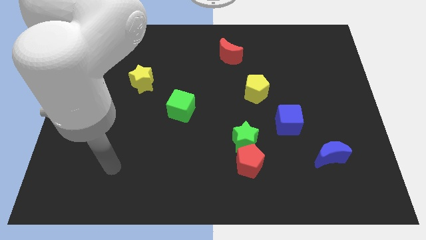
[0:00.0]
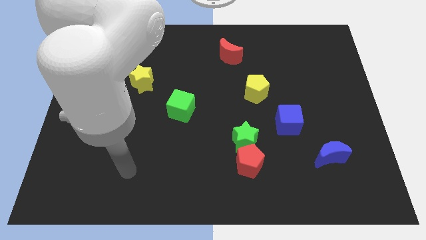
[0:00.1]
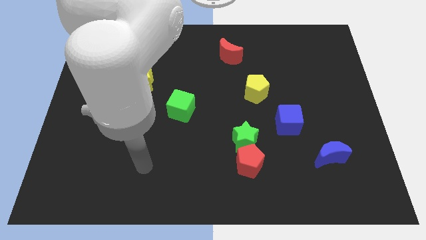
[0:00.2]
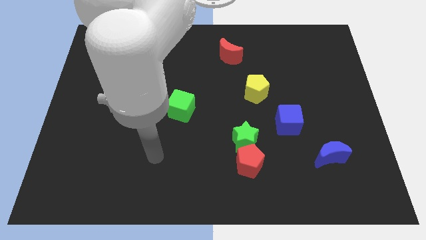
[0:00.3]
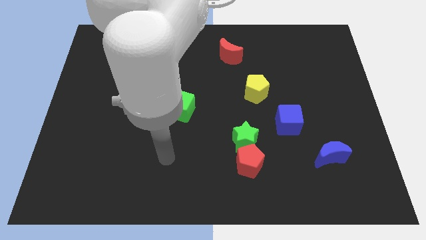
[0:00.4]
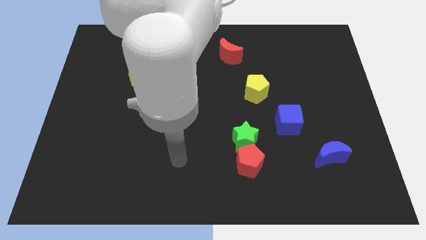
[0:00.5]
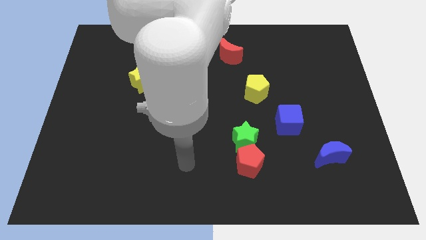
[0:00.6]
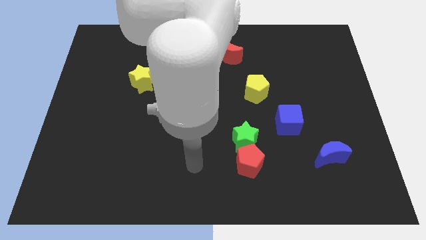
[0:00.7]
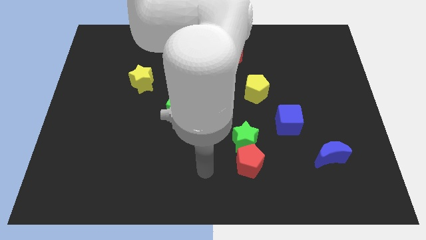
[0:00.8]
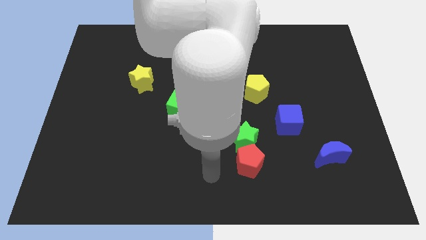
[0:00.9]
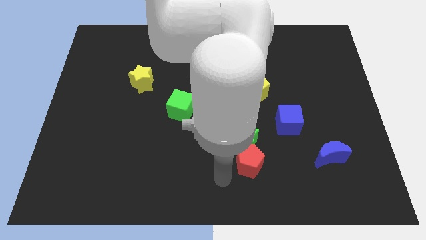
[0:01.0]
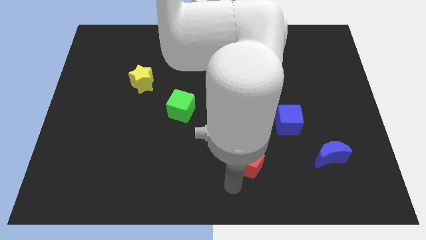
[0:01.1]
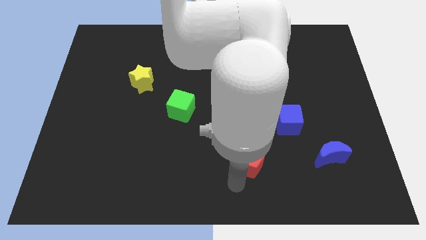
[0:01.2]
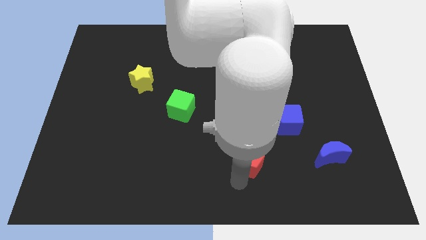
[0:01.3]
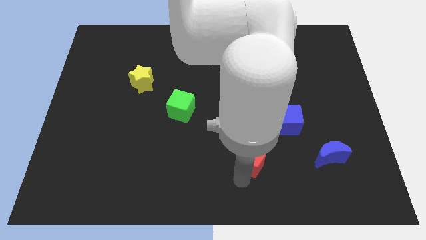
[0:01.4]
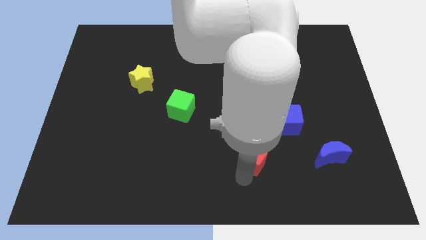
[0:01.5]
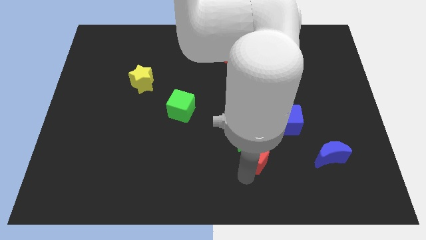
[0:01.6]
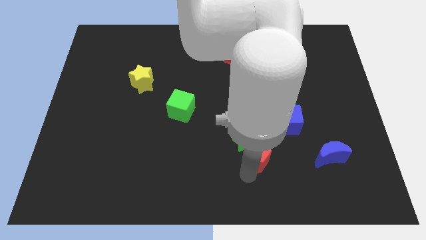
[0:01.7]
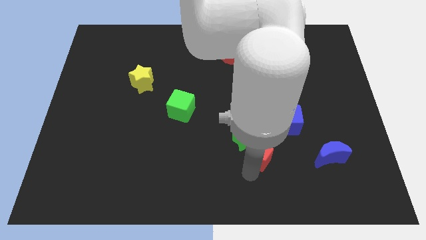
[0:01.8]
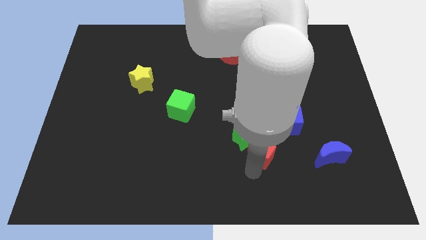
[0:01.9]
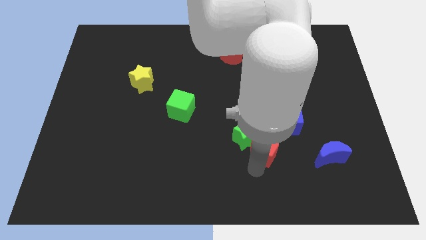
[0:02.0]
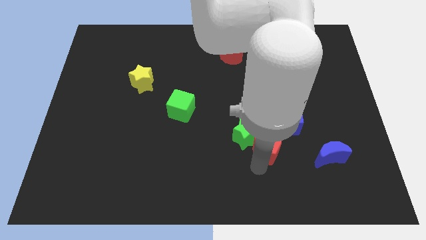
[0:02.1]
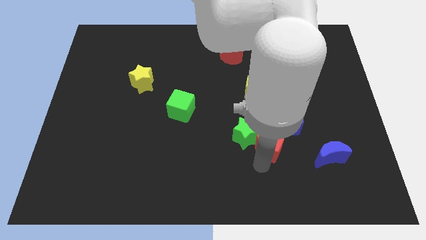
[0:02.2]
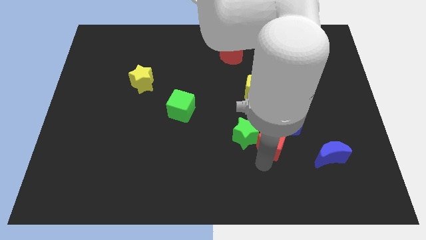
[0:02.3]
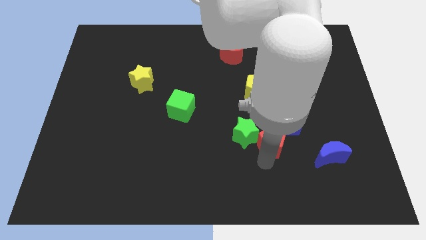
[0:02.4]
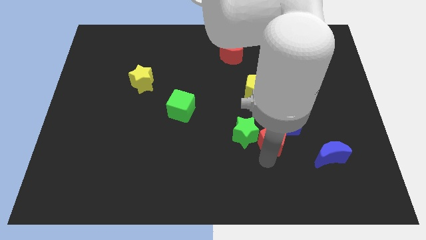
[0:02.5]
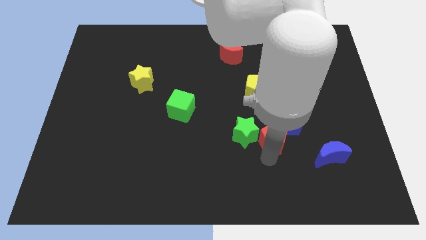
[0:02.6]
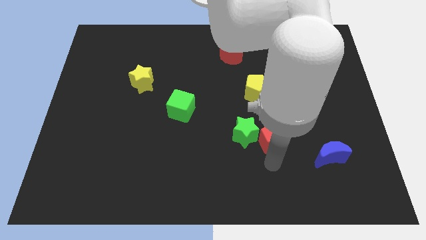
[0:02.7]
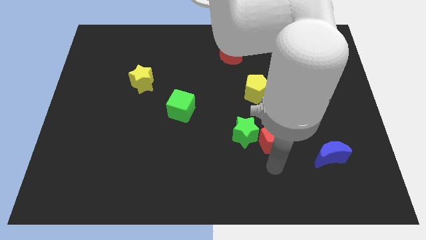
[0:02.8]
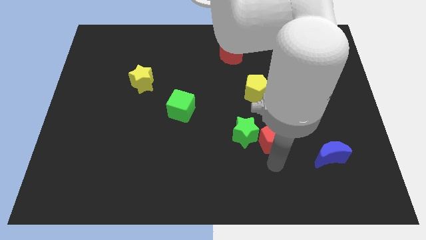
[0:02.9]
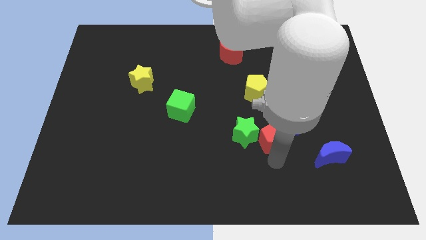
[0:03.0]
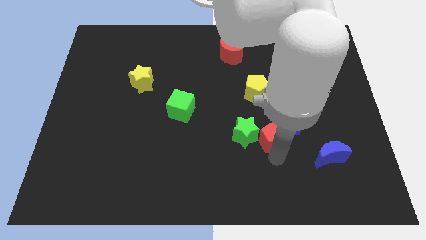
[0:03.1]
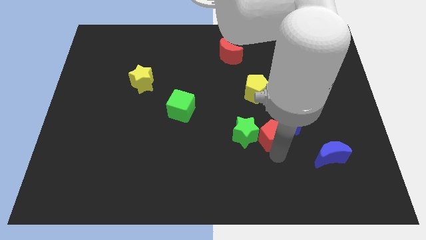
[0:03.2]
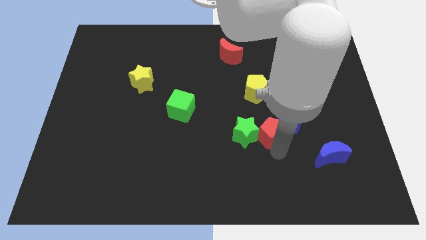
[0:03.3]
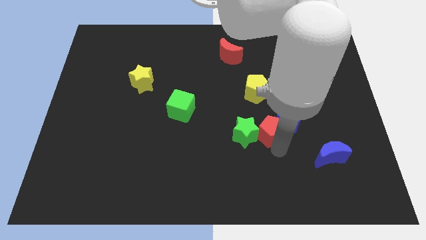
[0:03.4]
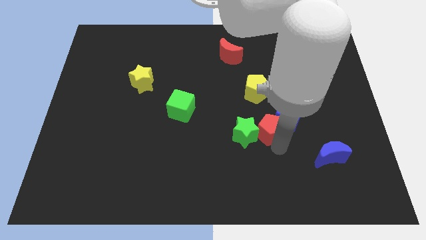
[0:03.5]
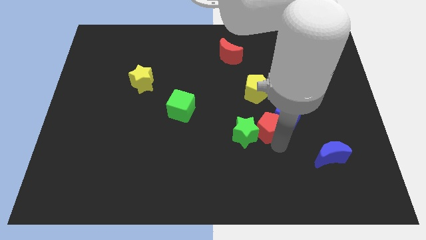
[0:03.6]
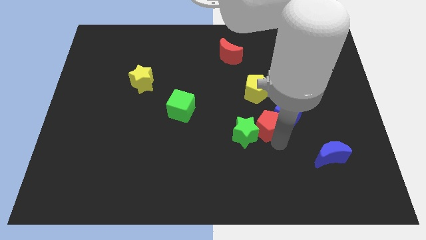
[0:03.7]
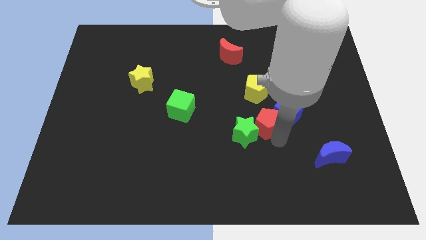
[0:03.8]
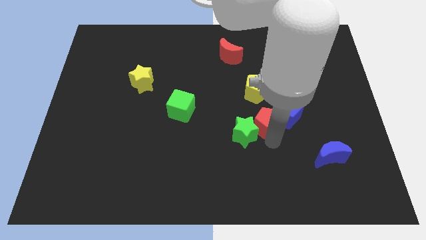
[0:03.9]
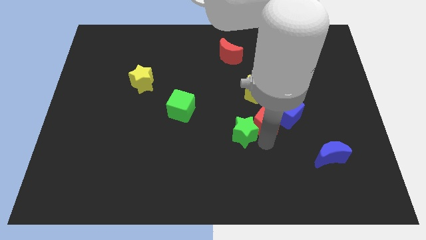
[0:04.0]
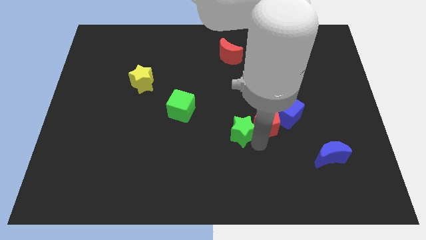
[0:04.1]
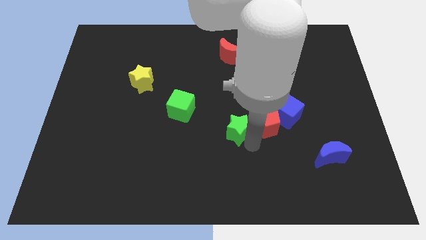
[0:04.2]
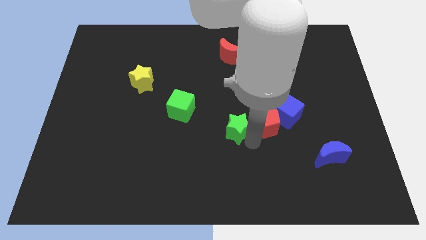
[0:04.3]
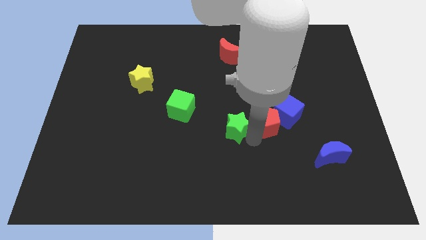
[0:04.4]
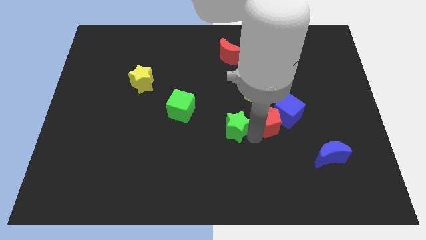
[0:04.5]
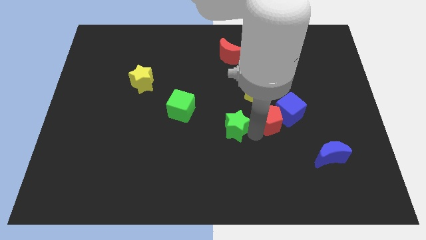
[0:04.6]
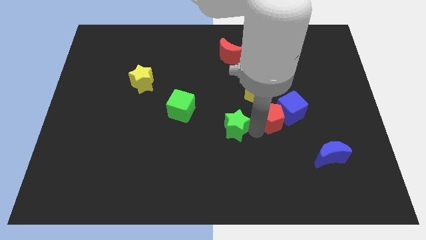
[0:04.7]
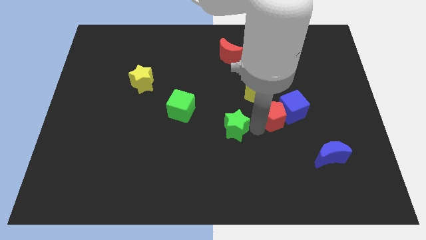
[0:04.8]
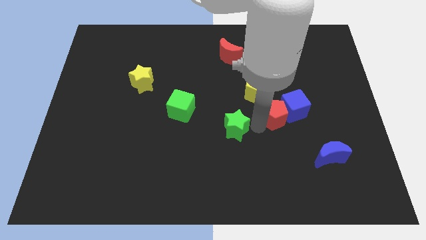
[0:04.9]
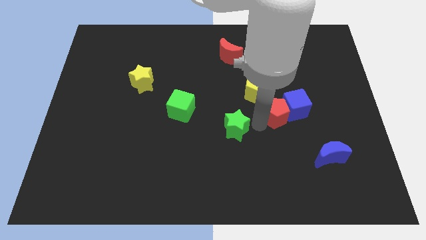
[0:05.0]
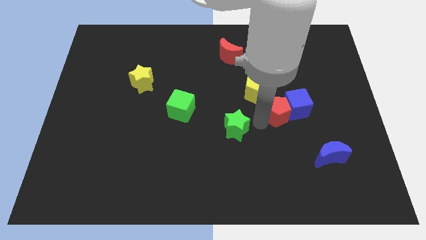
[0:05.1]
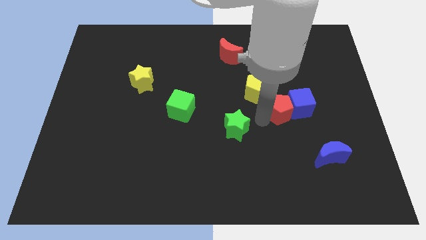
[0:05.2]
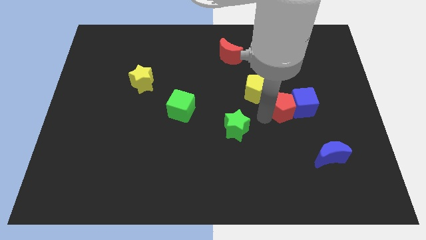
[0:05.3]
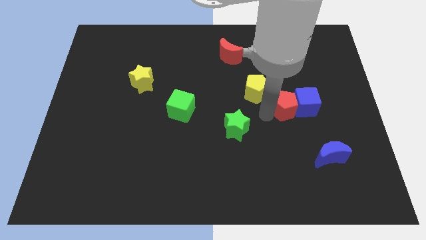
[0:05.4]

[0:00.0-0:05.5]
slide the red pentagon just right of the yellow pentagon
